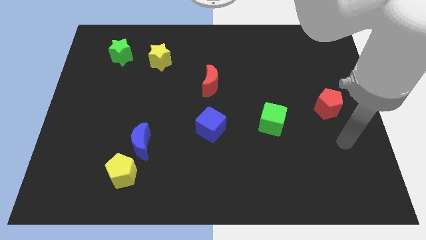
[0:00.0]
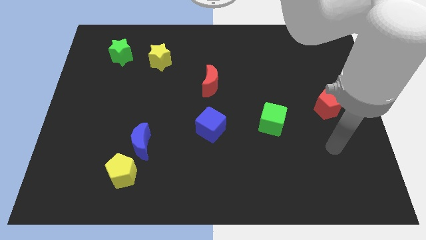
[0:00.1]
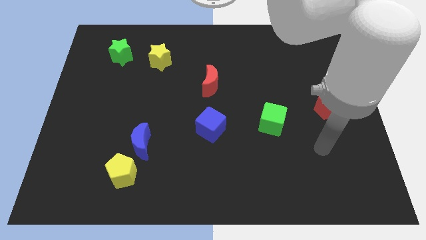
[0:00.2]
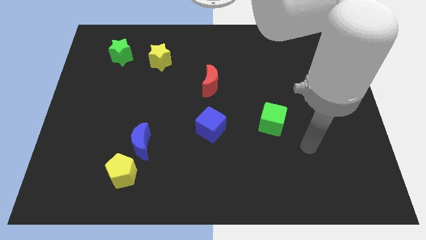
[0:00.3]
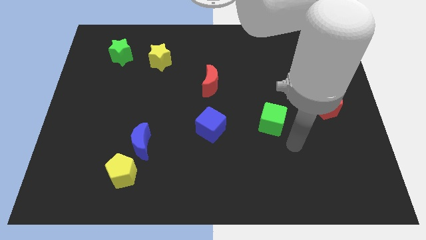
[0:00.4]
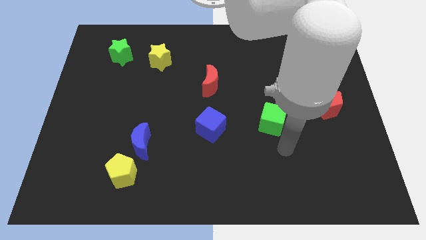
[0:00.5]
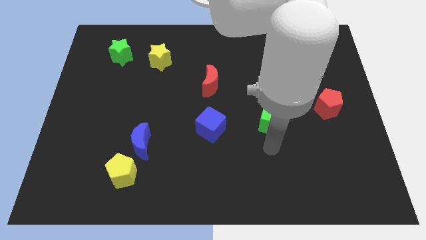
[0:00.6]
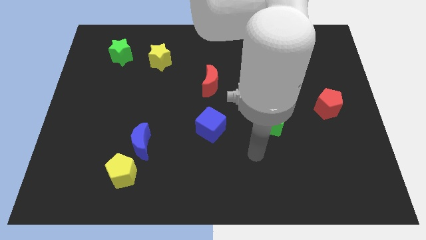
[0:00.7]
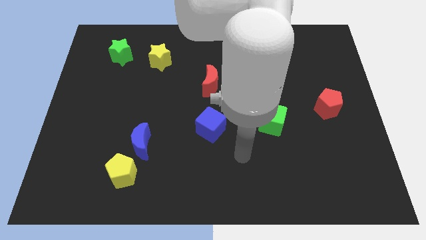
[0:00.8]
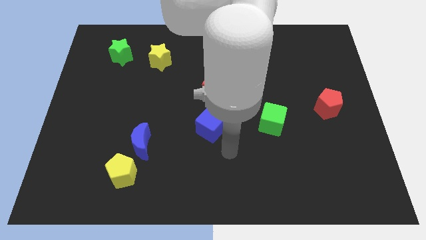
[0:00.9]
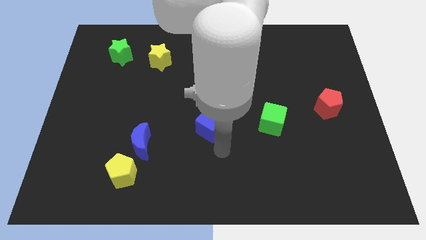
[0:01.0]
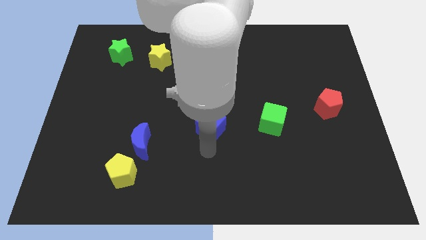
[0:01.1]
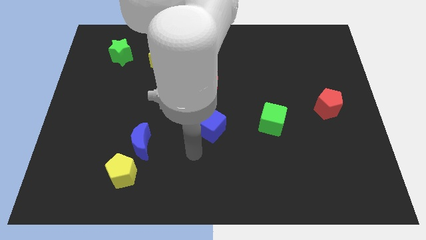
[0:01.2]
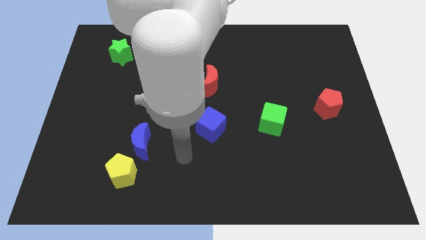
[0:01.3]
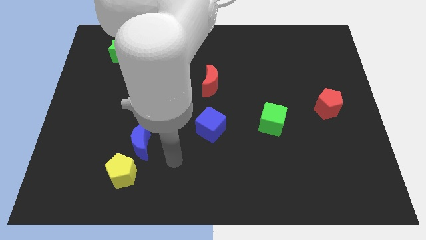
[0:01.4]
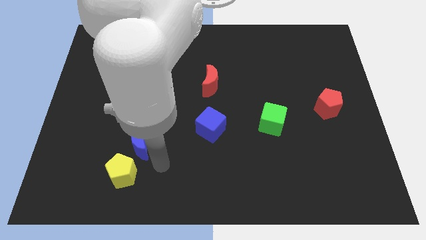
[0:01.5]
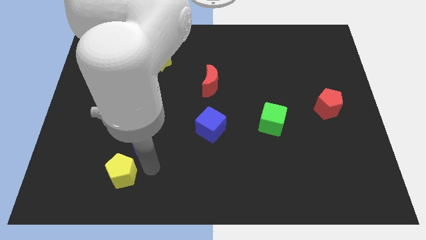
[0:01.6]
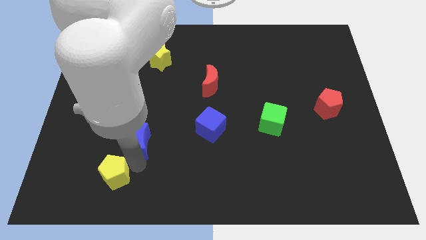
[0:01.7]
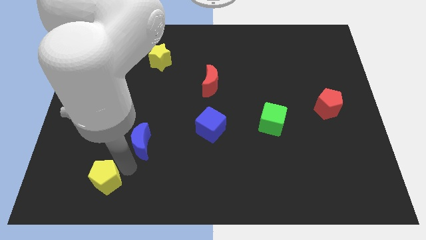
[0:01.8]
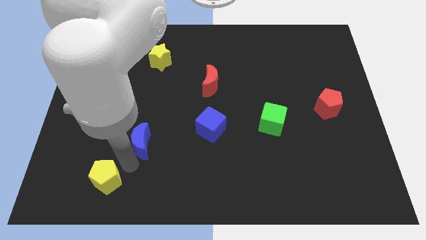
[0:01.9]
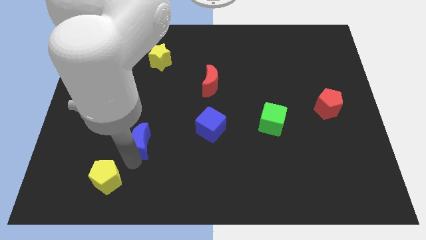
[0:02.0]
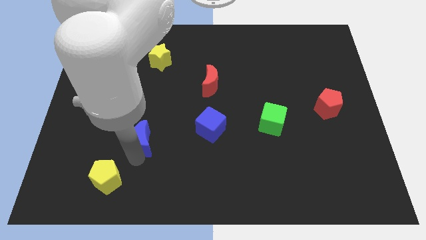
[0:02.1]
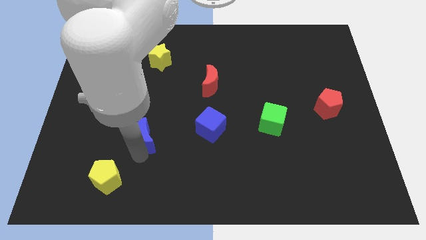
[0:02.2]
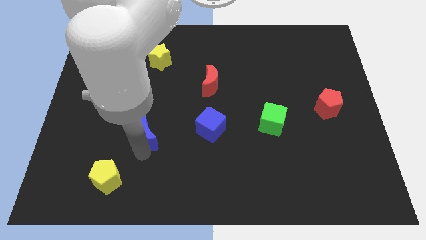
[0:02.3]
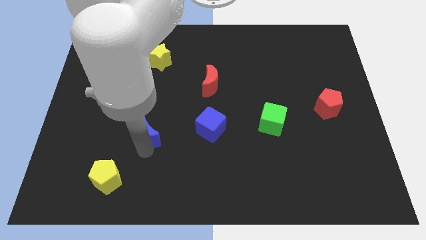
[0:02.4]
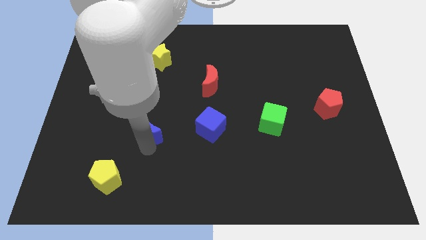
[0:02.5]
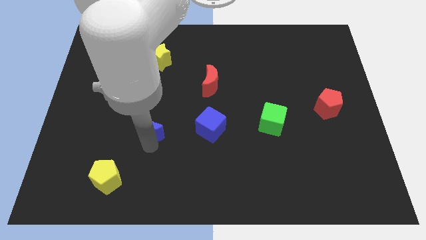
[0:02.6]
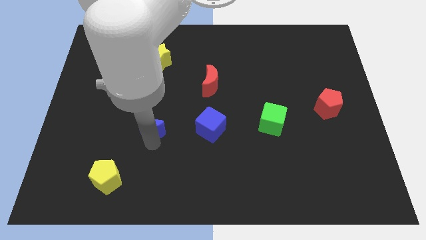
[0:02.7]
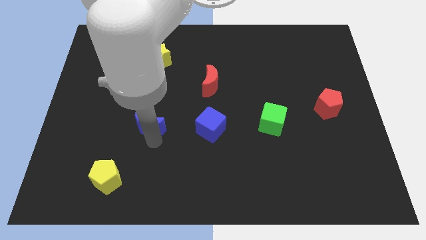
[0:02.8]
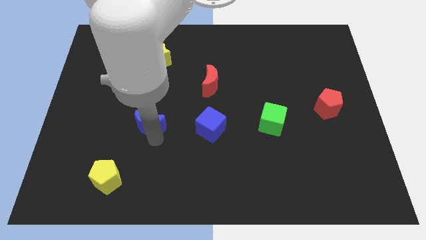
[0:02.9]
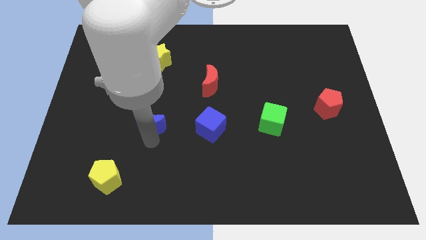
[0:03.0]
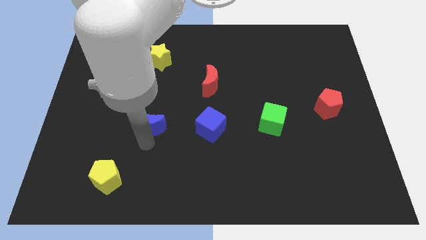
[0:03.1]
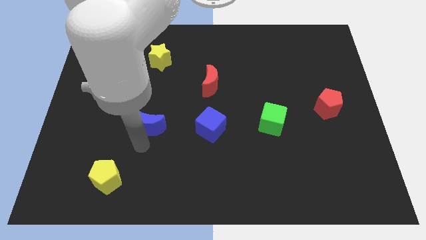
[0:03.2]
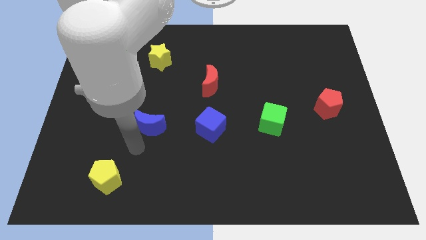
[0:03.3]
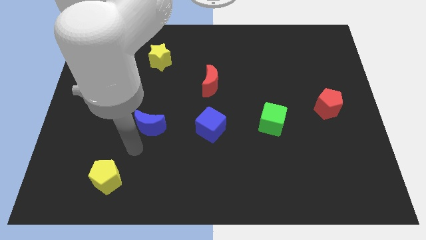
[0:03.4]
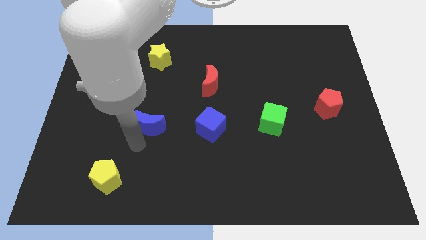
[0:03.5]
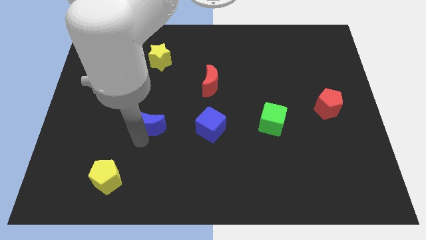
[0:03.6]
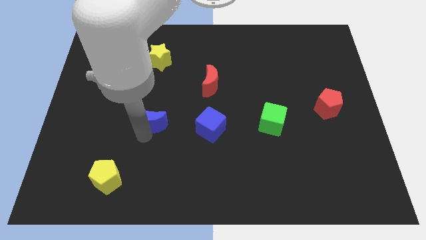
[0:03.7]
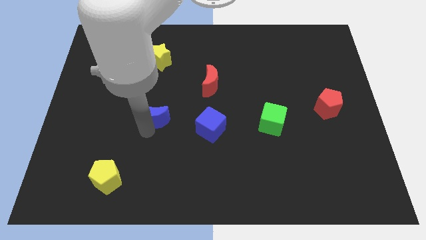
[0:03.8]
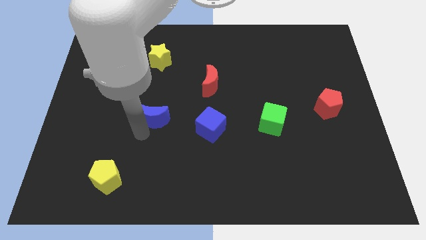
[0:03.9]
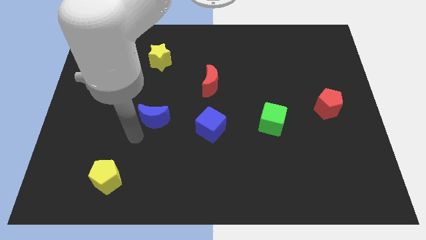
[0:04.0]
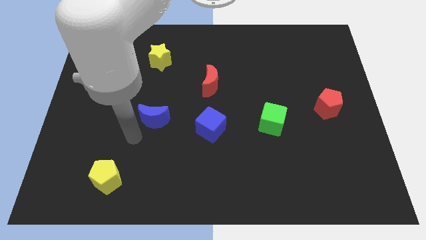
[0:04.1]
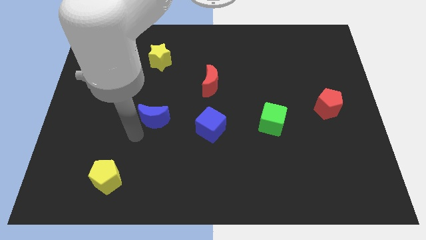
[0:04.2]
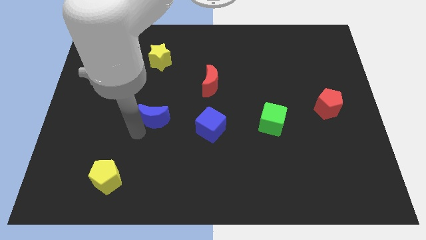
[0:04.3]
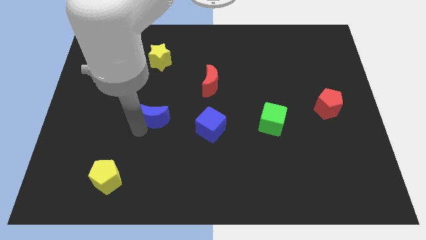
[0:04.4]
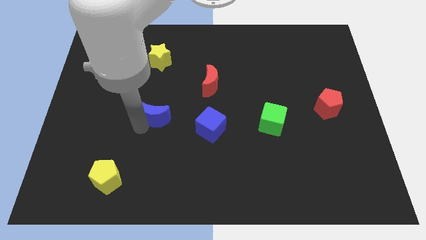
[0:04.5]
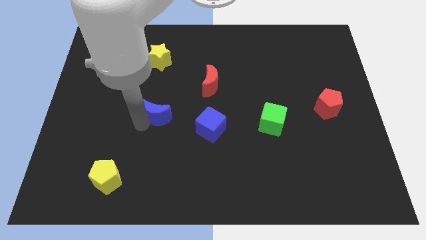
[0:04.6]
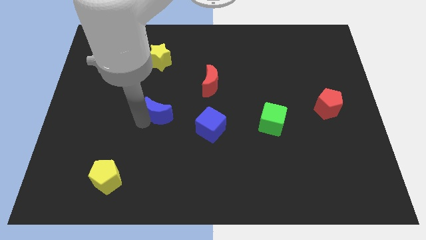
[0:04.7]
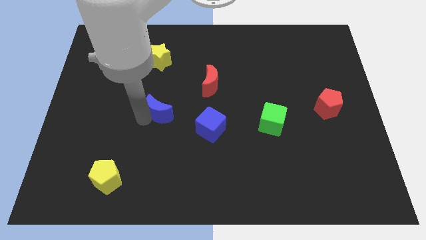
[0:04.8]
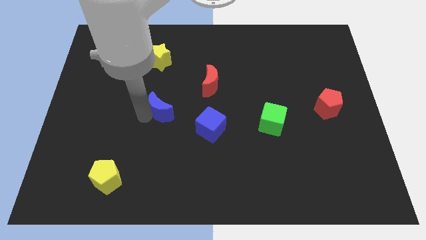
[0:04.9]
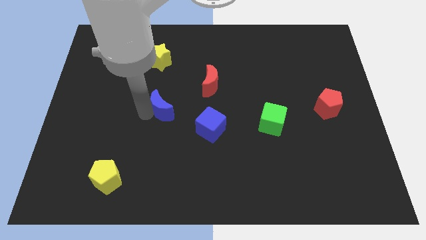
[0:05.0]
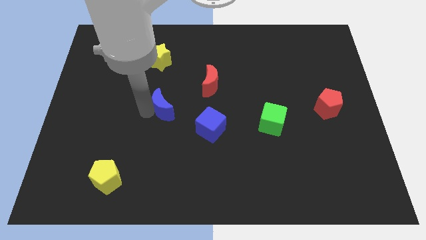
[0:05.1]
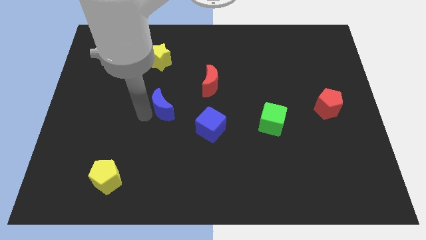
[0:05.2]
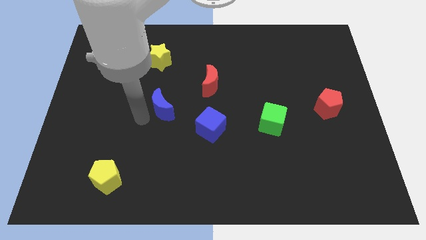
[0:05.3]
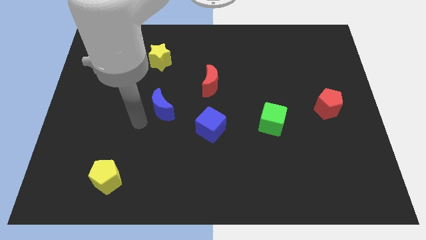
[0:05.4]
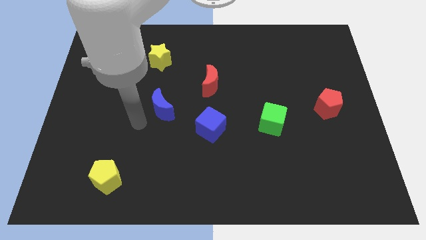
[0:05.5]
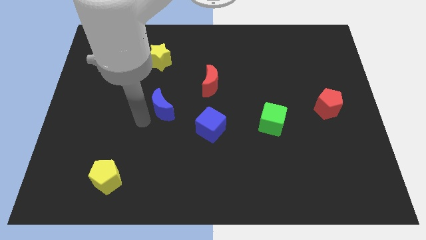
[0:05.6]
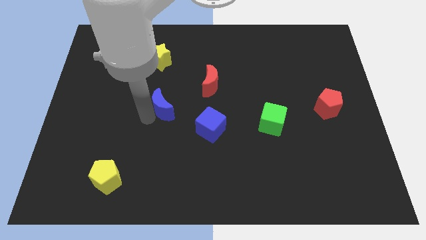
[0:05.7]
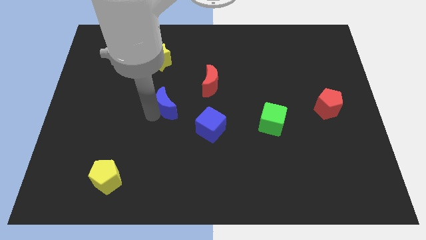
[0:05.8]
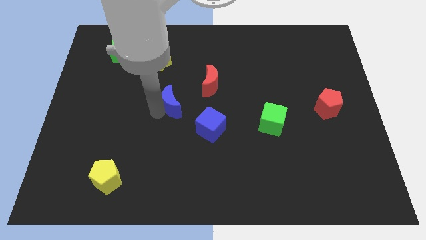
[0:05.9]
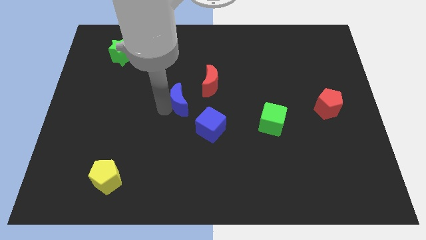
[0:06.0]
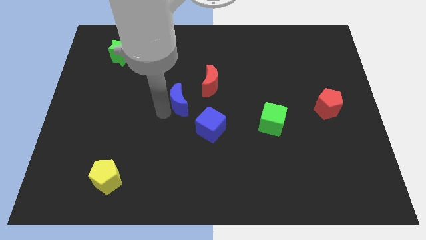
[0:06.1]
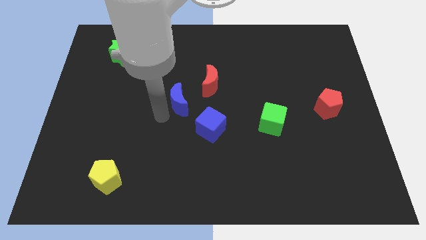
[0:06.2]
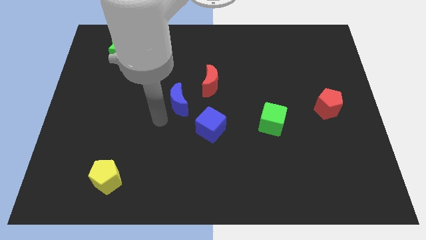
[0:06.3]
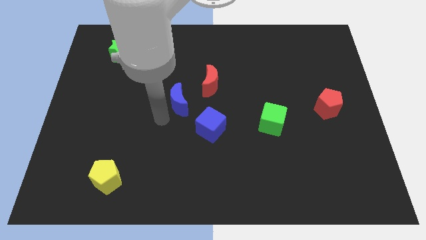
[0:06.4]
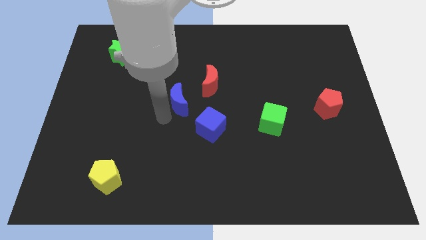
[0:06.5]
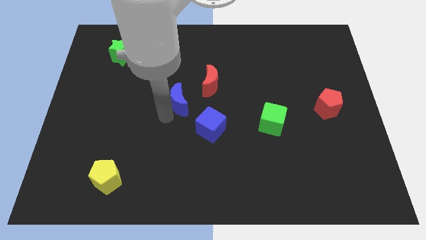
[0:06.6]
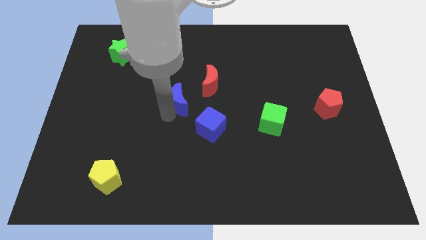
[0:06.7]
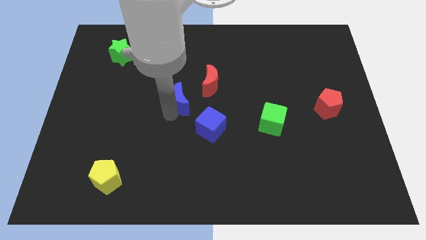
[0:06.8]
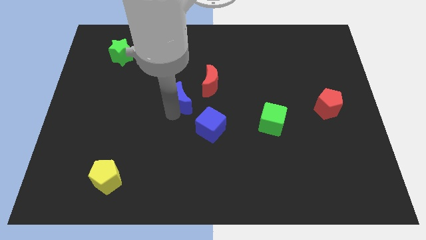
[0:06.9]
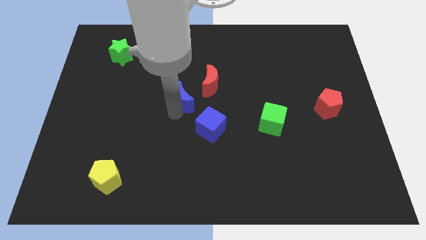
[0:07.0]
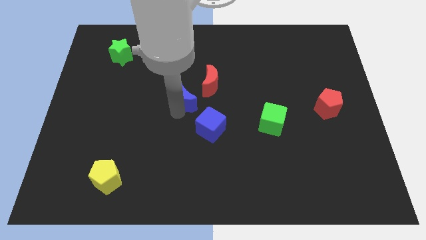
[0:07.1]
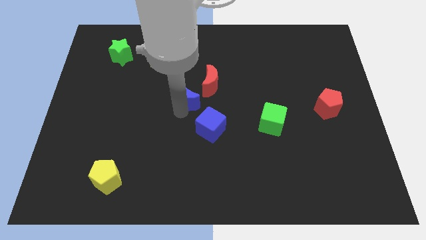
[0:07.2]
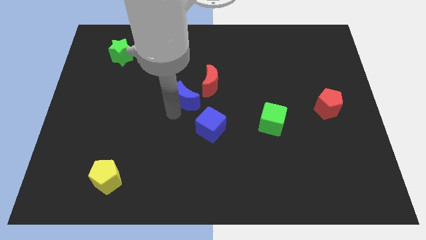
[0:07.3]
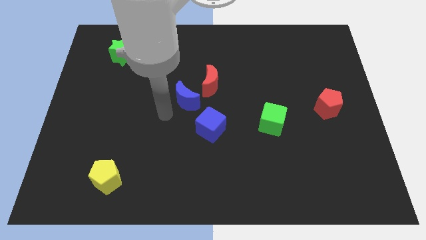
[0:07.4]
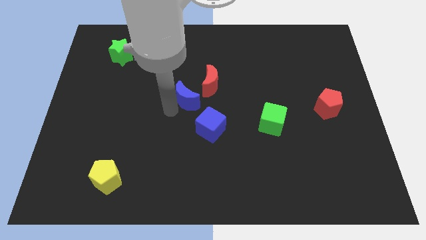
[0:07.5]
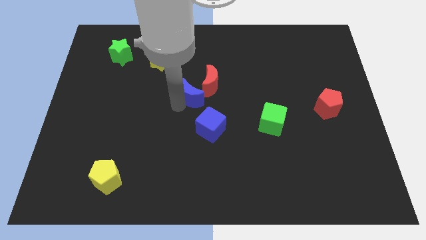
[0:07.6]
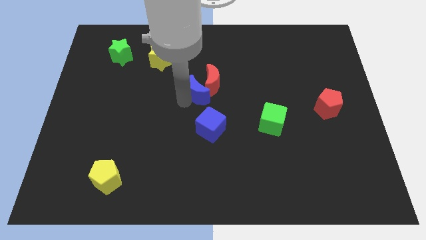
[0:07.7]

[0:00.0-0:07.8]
move the blue moon towards the red moon
